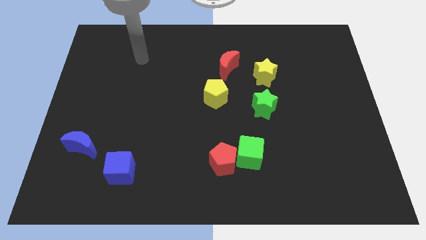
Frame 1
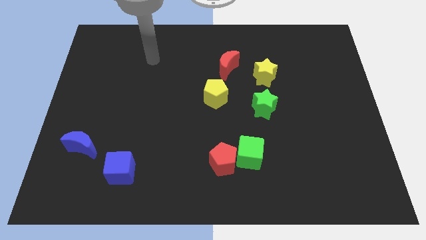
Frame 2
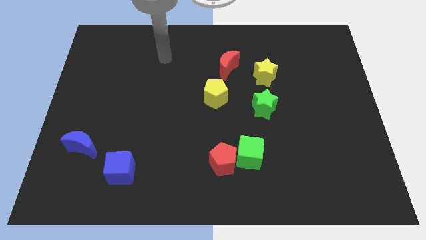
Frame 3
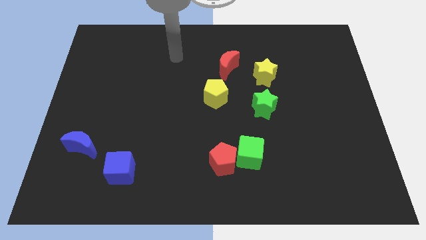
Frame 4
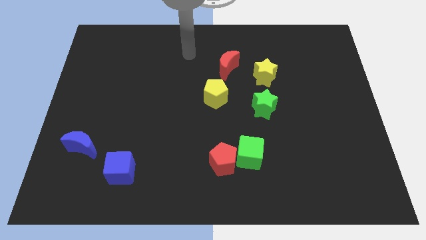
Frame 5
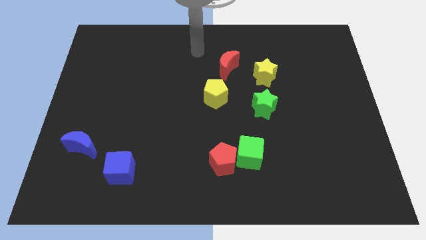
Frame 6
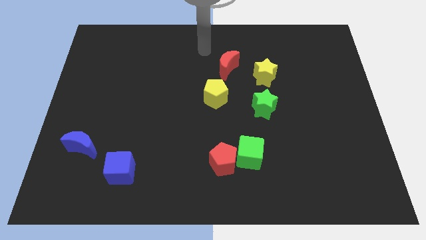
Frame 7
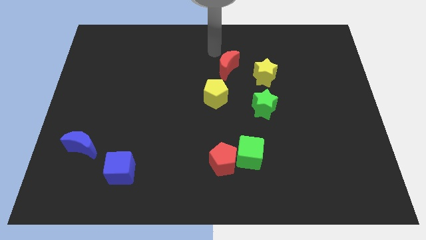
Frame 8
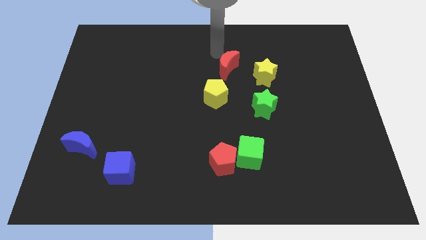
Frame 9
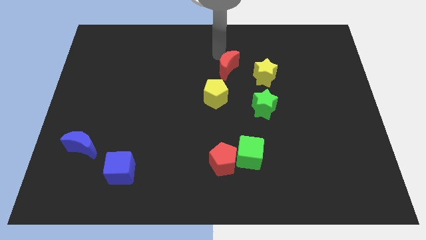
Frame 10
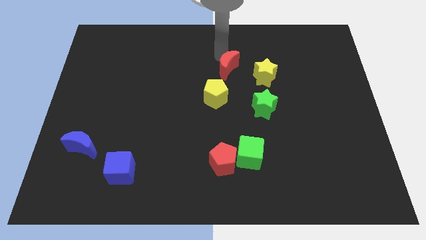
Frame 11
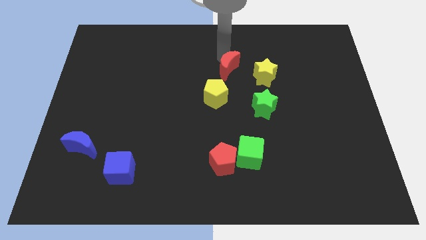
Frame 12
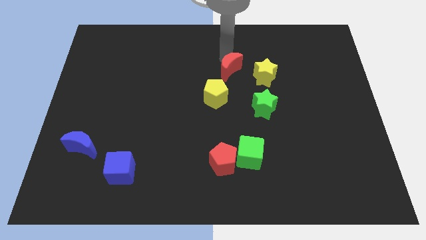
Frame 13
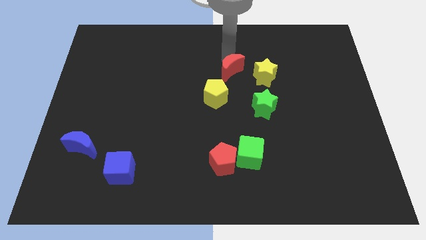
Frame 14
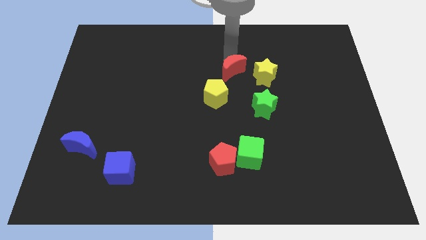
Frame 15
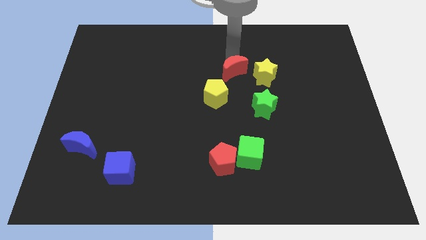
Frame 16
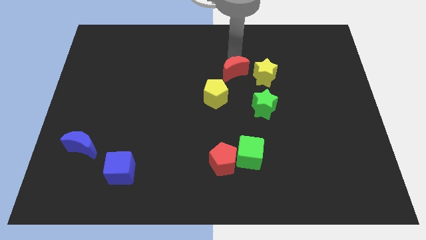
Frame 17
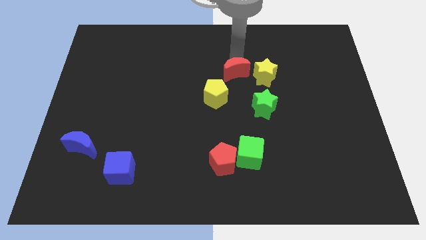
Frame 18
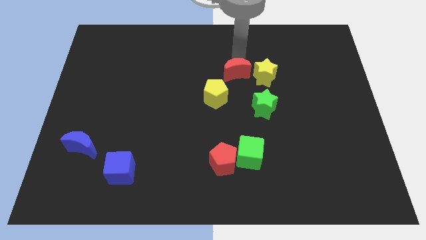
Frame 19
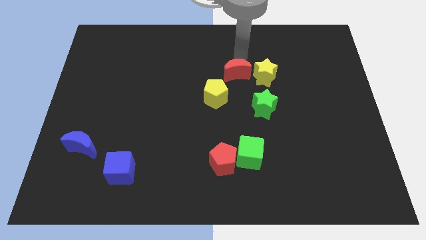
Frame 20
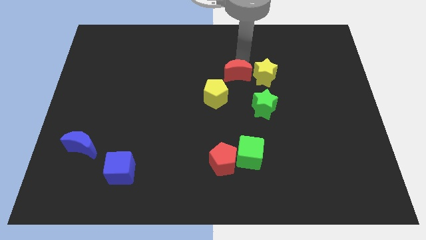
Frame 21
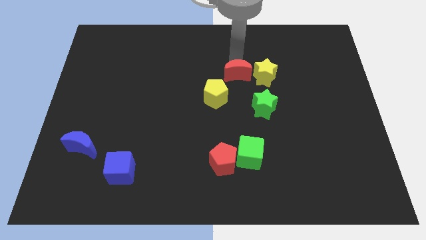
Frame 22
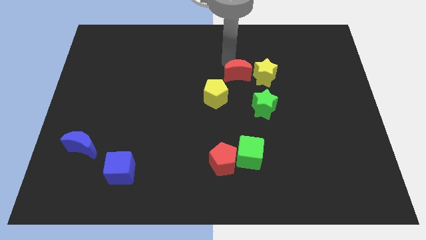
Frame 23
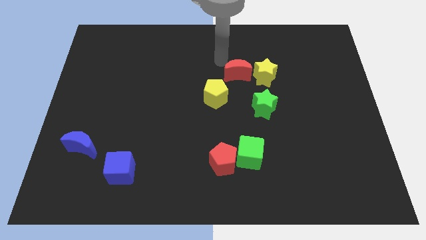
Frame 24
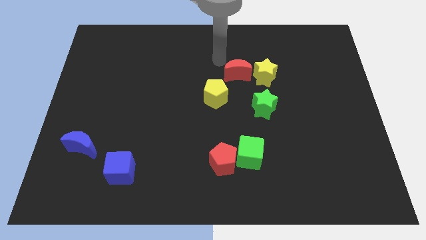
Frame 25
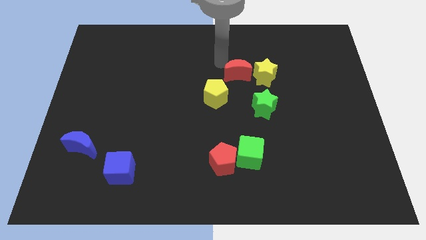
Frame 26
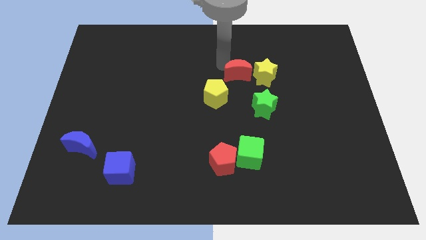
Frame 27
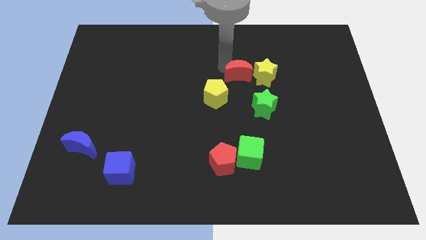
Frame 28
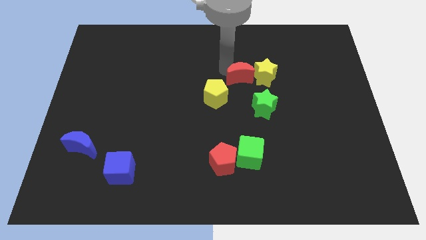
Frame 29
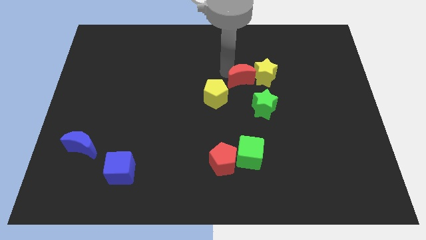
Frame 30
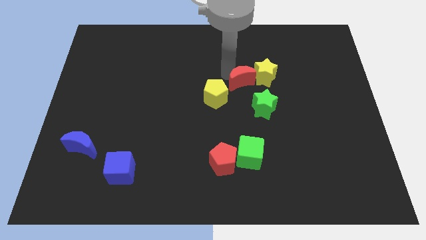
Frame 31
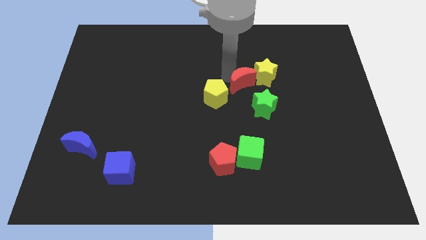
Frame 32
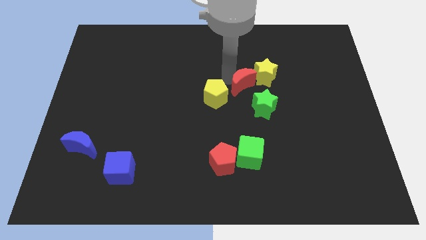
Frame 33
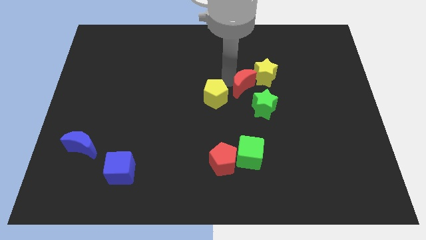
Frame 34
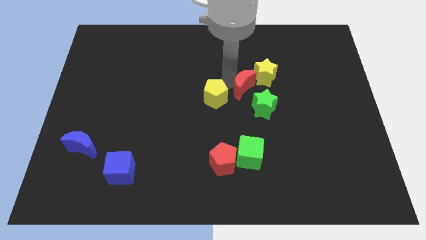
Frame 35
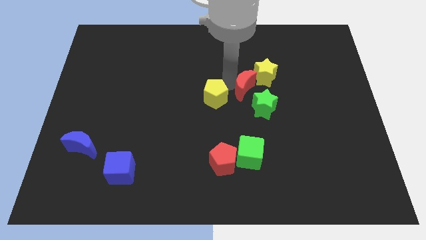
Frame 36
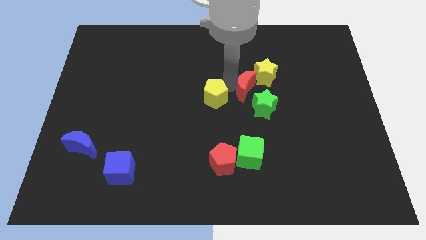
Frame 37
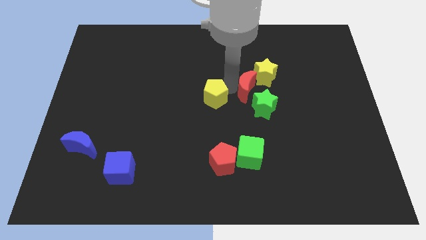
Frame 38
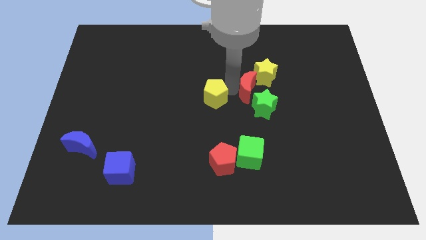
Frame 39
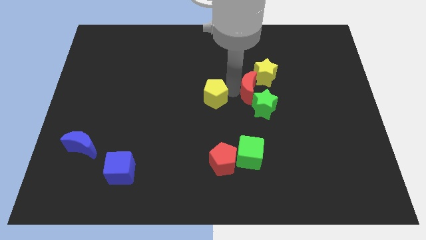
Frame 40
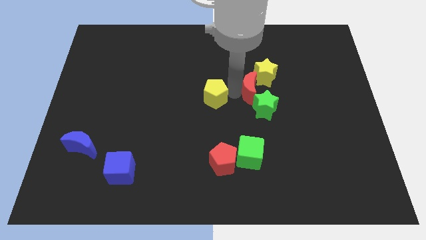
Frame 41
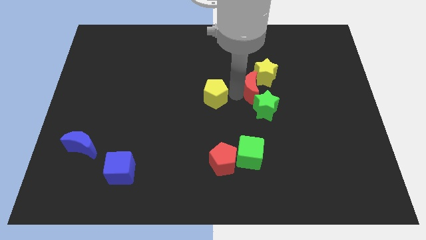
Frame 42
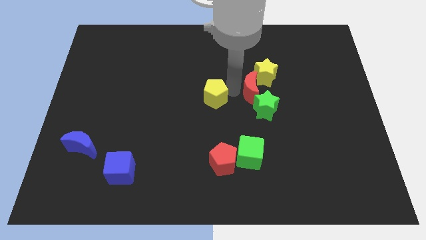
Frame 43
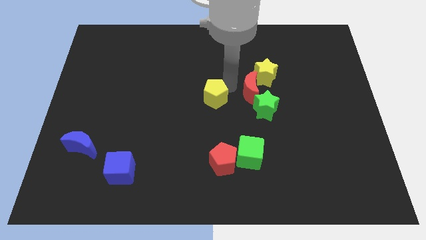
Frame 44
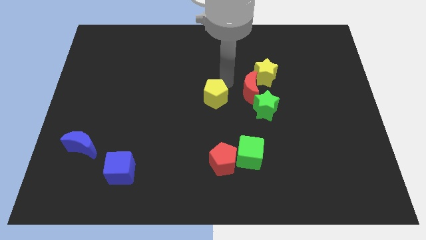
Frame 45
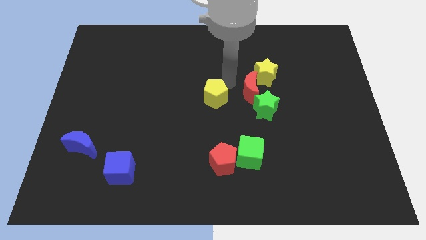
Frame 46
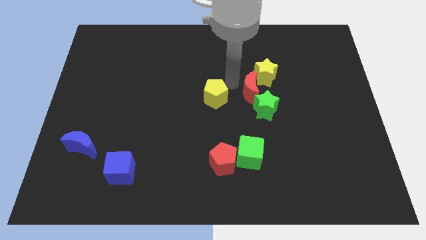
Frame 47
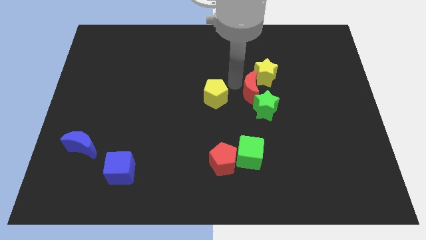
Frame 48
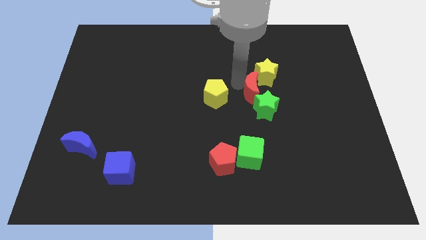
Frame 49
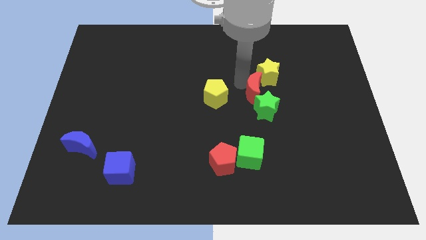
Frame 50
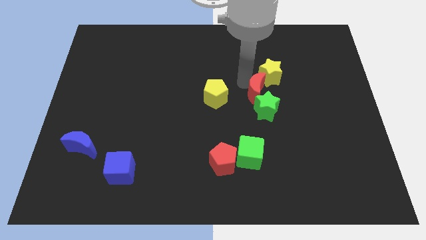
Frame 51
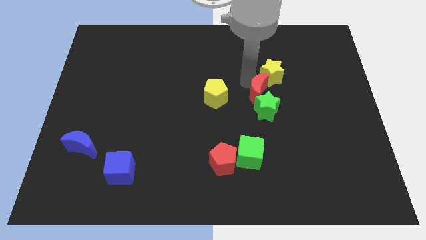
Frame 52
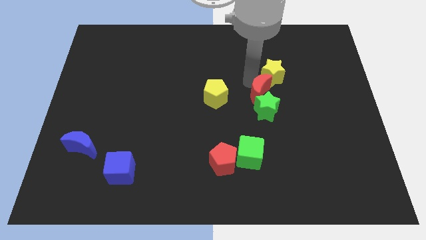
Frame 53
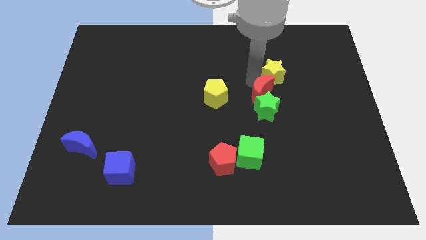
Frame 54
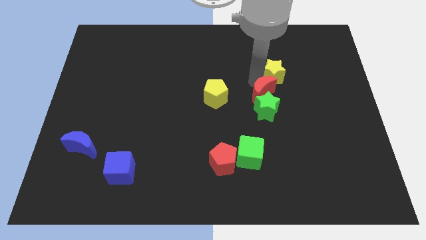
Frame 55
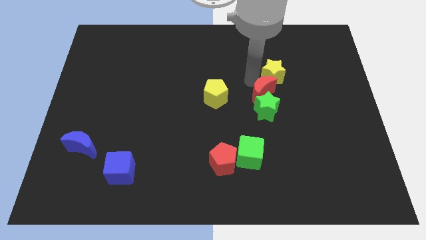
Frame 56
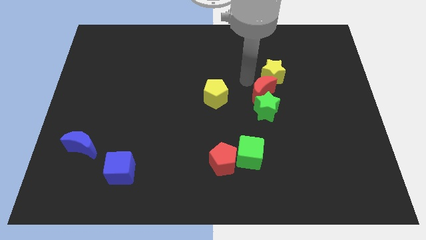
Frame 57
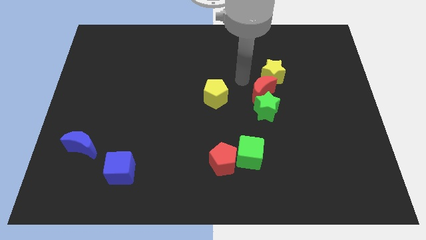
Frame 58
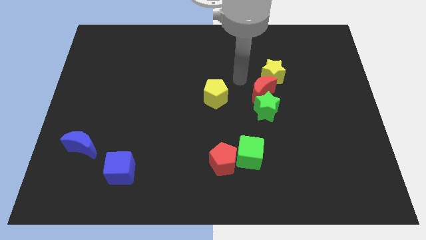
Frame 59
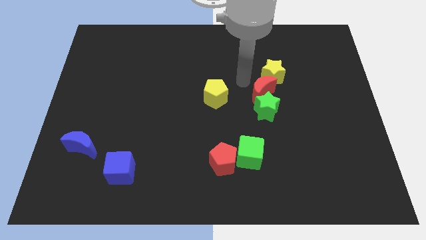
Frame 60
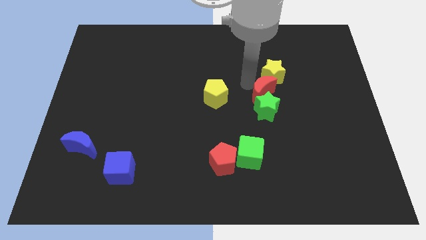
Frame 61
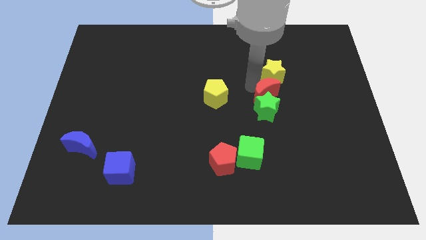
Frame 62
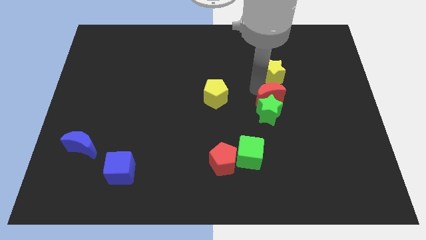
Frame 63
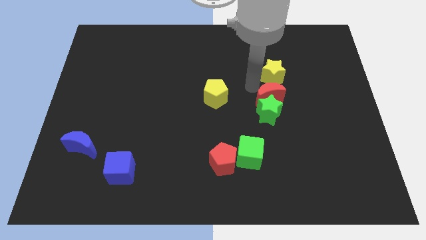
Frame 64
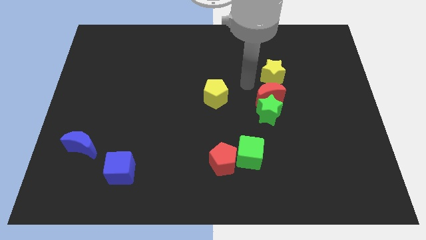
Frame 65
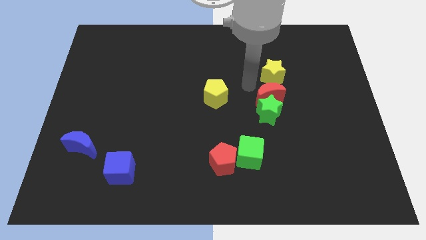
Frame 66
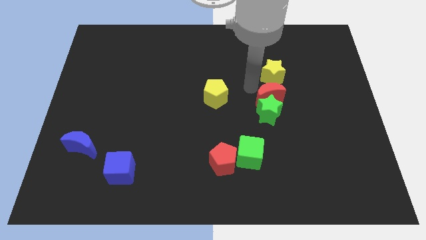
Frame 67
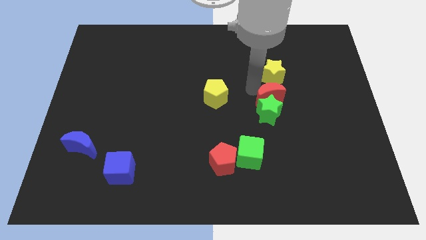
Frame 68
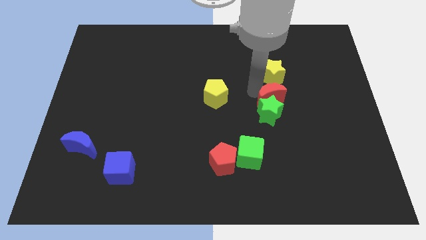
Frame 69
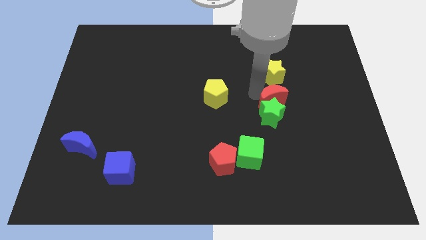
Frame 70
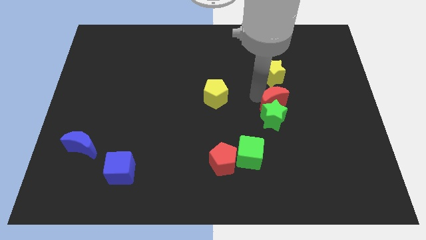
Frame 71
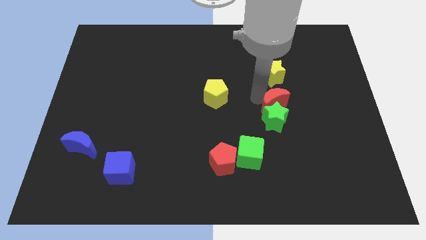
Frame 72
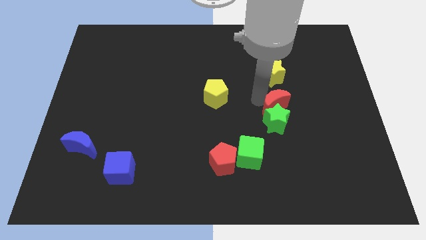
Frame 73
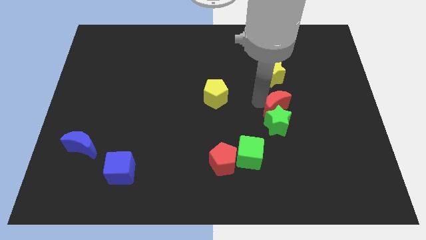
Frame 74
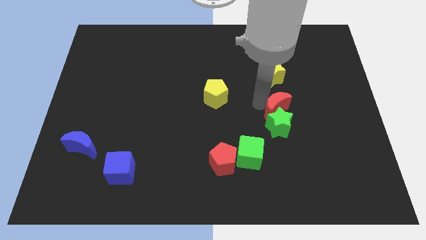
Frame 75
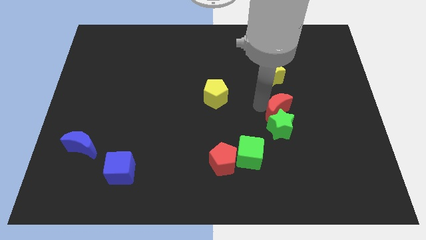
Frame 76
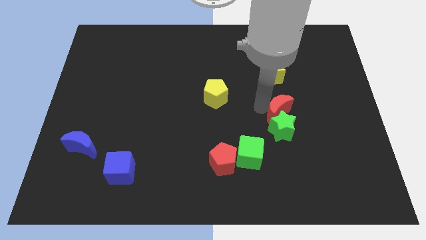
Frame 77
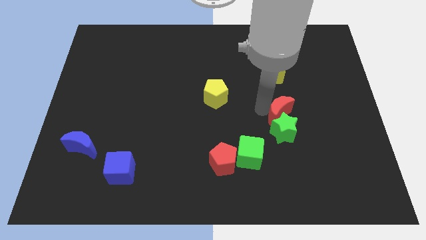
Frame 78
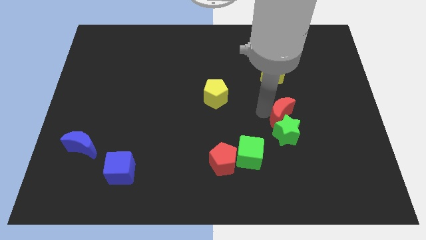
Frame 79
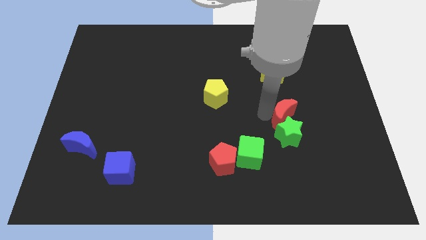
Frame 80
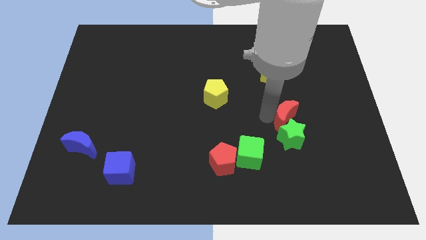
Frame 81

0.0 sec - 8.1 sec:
slide the red moon down and to the right diagonally
